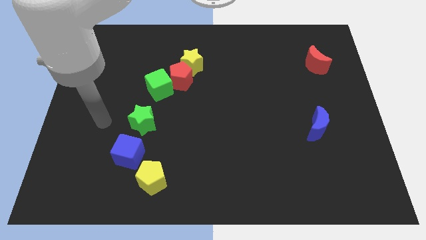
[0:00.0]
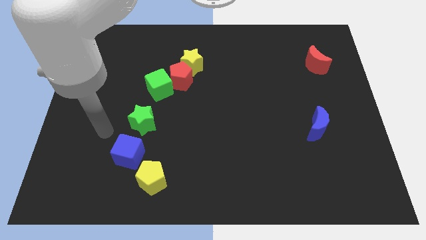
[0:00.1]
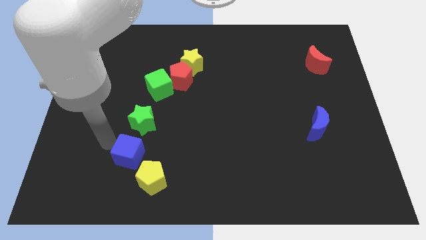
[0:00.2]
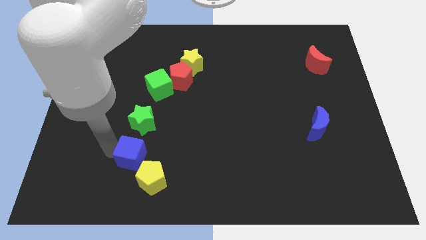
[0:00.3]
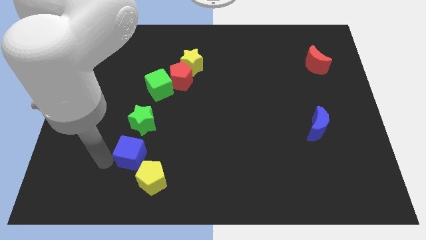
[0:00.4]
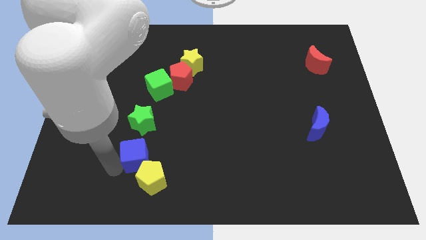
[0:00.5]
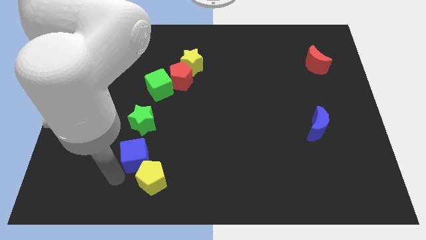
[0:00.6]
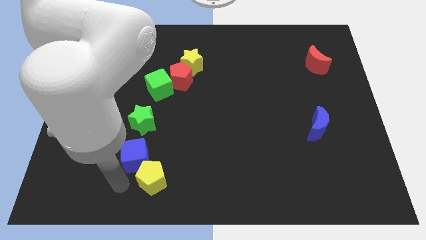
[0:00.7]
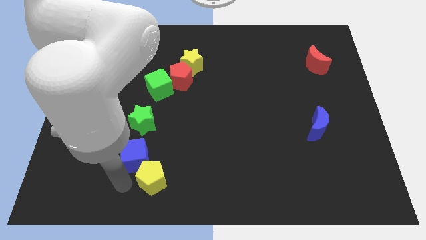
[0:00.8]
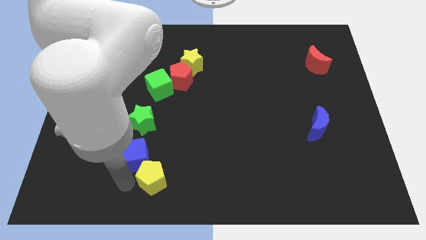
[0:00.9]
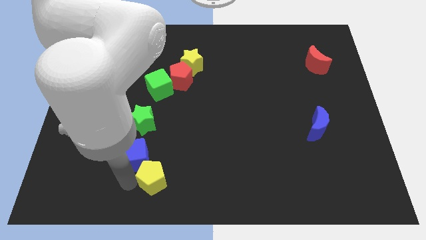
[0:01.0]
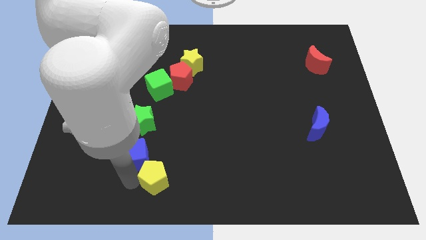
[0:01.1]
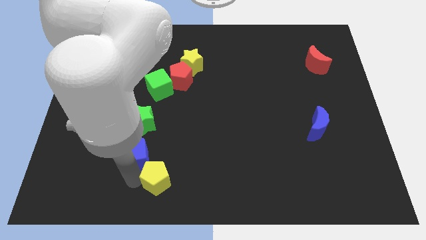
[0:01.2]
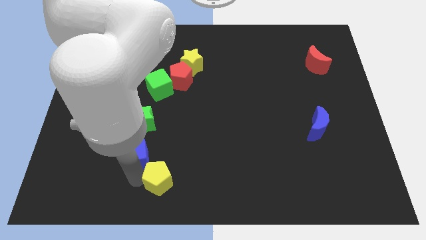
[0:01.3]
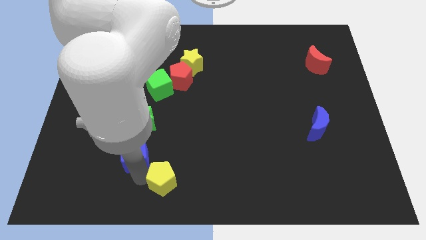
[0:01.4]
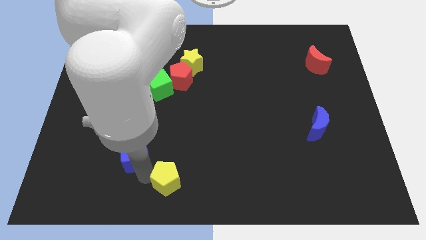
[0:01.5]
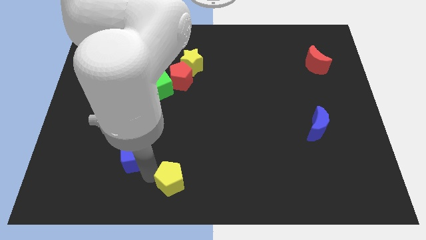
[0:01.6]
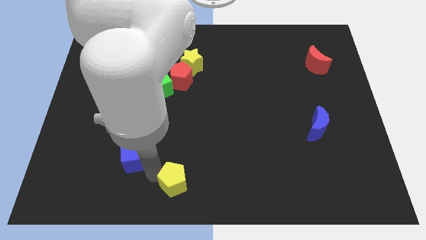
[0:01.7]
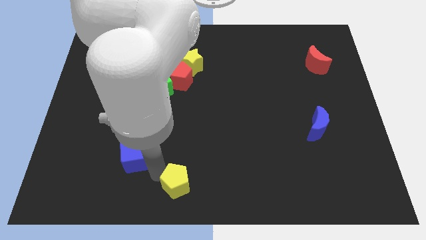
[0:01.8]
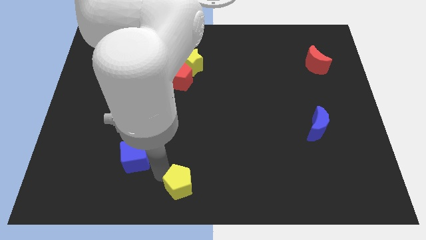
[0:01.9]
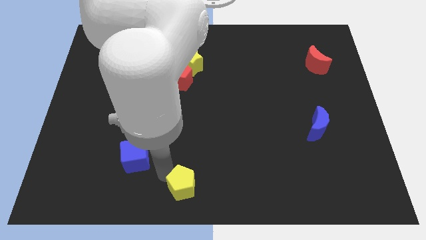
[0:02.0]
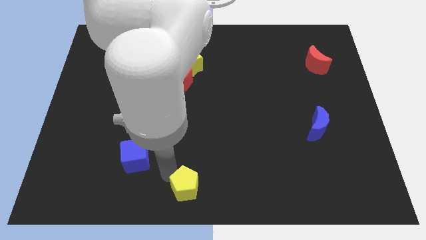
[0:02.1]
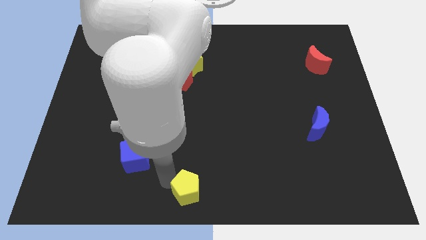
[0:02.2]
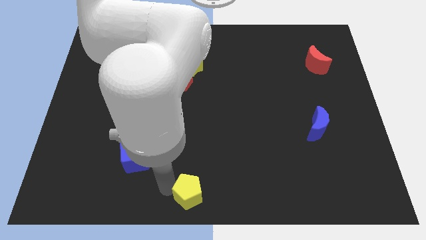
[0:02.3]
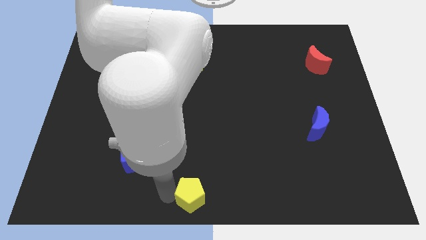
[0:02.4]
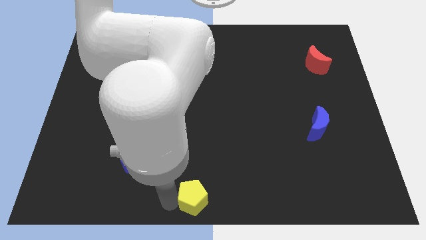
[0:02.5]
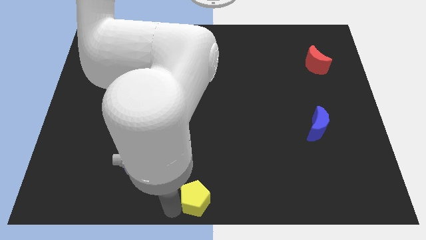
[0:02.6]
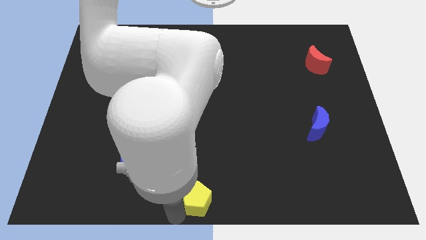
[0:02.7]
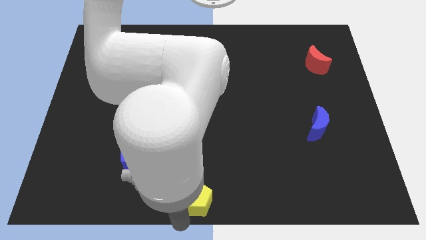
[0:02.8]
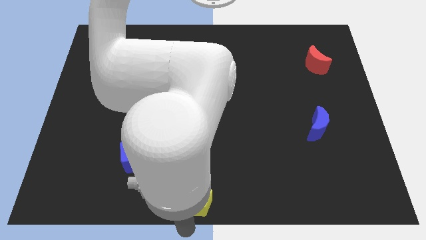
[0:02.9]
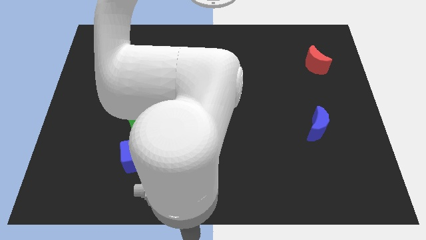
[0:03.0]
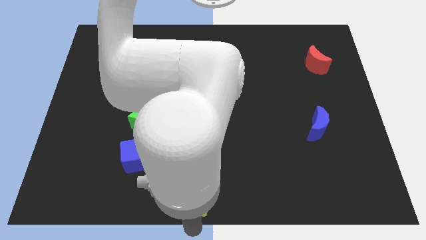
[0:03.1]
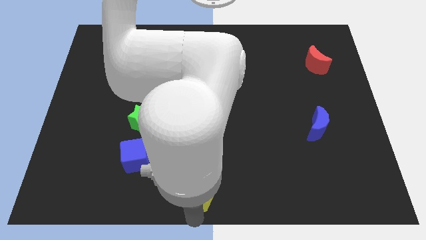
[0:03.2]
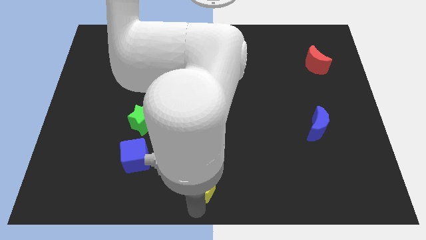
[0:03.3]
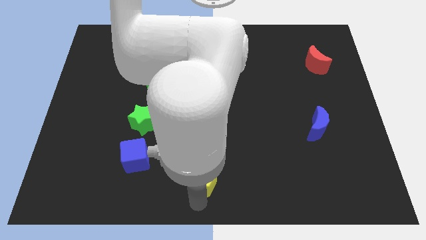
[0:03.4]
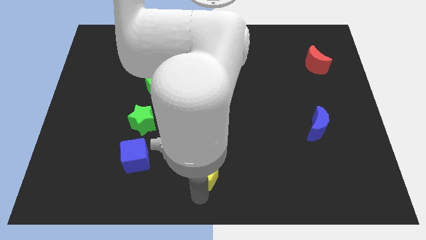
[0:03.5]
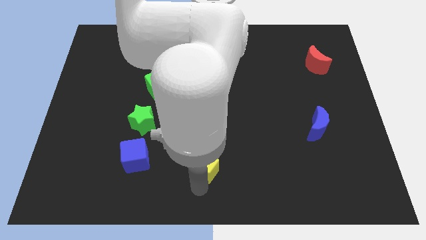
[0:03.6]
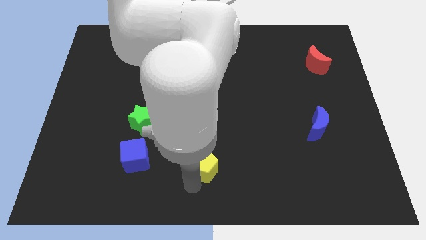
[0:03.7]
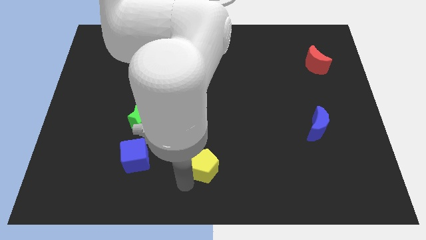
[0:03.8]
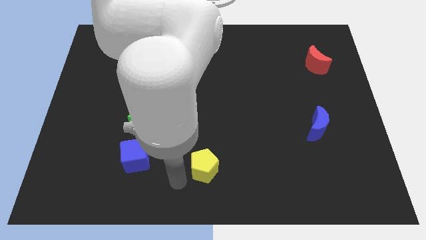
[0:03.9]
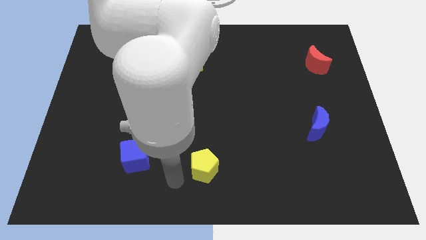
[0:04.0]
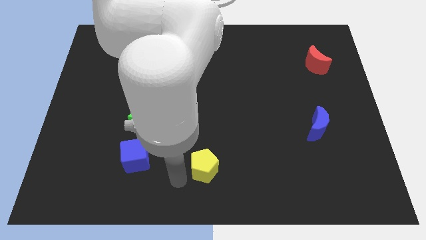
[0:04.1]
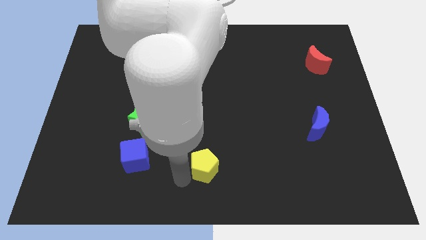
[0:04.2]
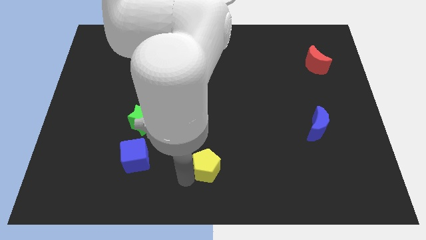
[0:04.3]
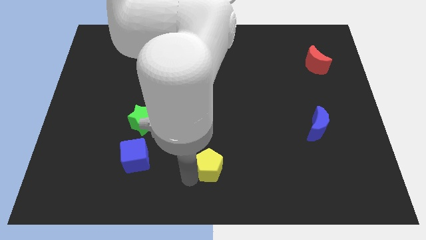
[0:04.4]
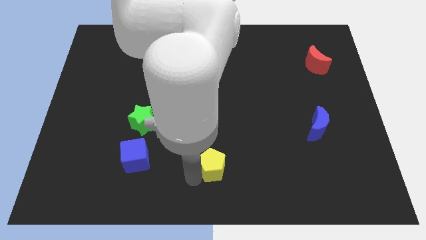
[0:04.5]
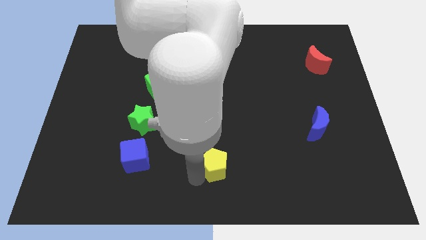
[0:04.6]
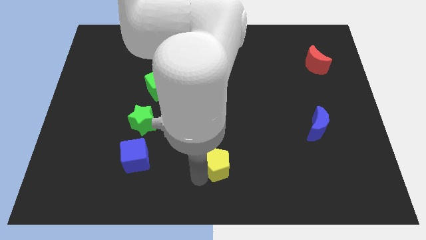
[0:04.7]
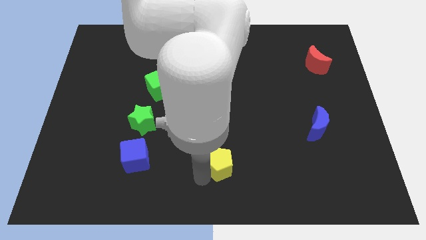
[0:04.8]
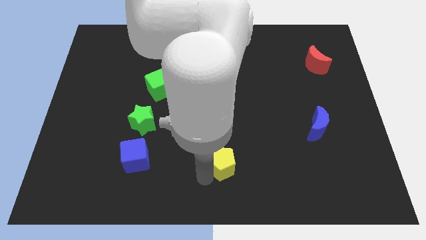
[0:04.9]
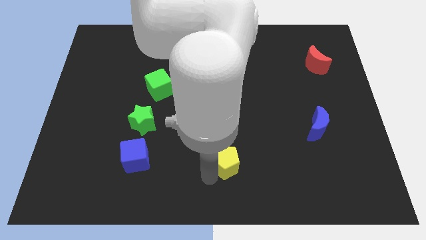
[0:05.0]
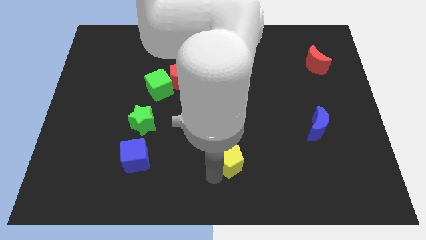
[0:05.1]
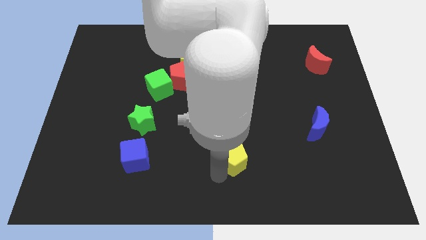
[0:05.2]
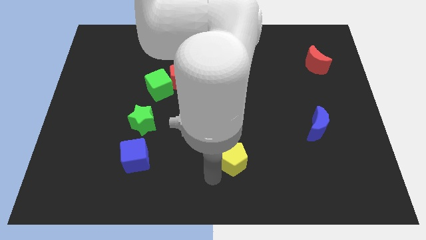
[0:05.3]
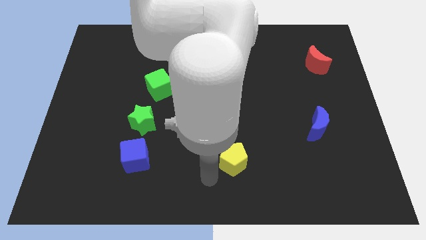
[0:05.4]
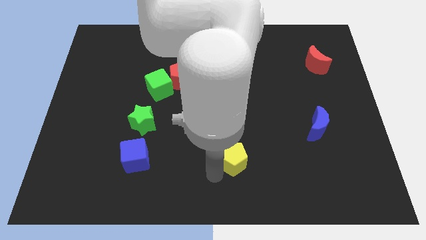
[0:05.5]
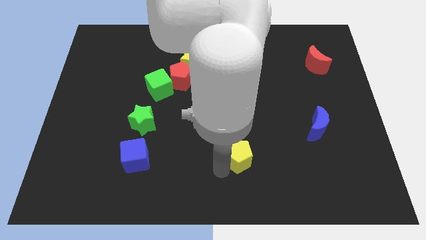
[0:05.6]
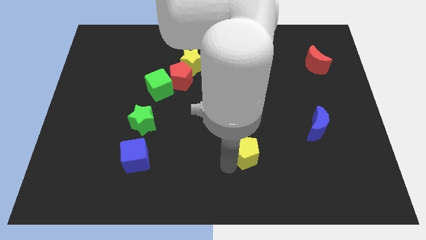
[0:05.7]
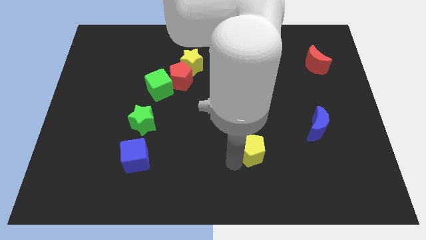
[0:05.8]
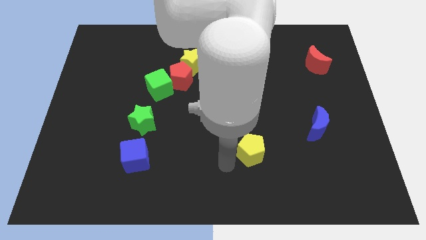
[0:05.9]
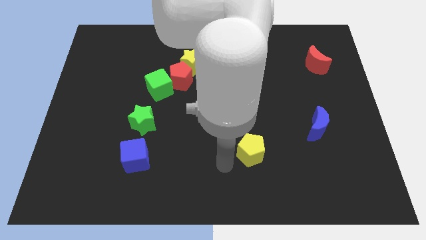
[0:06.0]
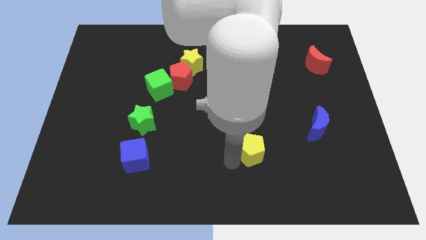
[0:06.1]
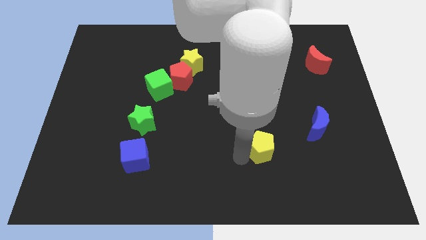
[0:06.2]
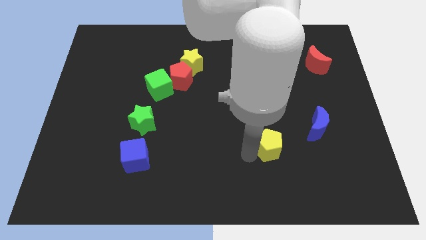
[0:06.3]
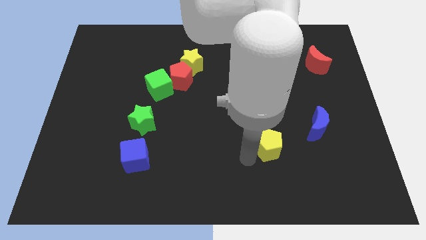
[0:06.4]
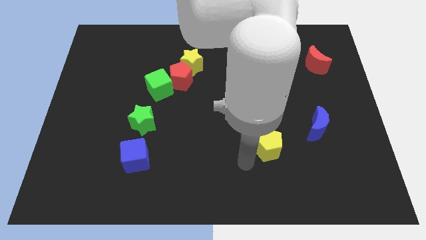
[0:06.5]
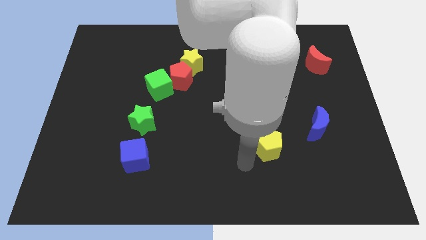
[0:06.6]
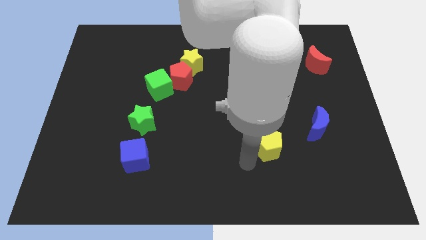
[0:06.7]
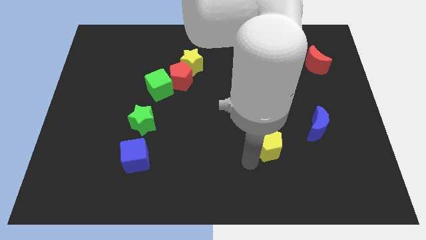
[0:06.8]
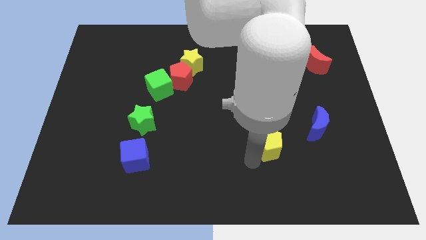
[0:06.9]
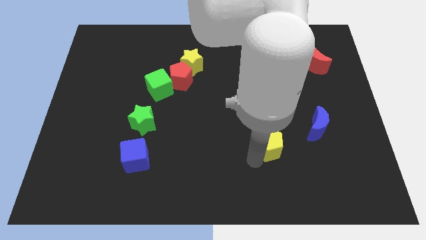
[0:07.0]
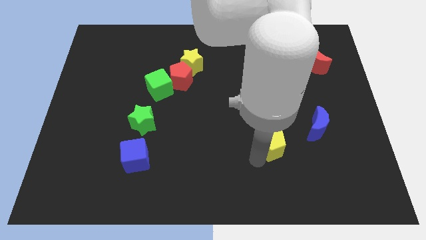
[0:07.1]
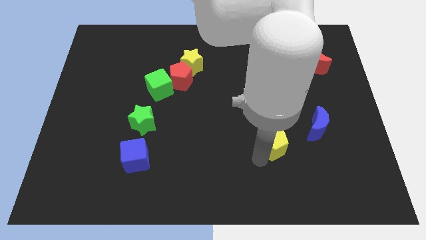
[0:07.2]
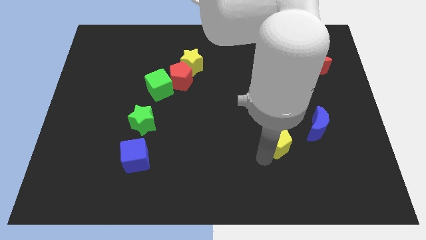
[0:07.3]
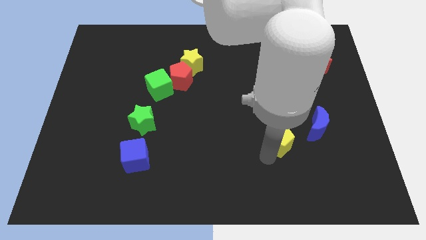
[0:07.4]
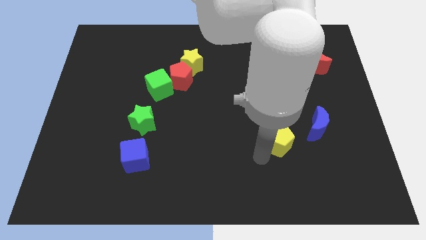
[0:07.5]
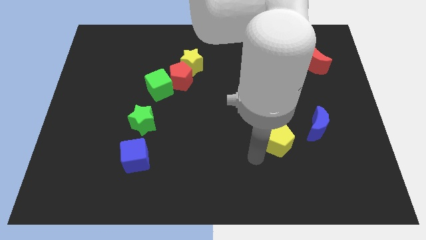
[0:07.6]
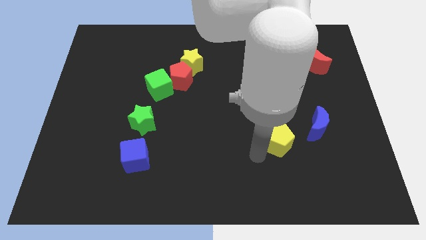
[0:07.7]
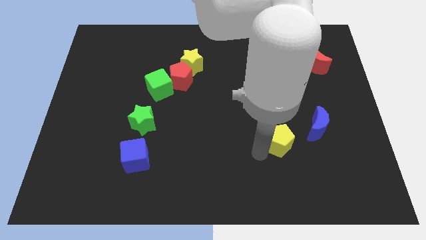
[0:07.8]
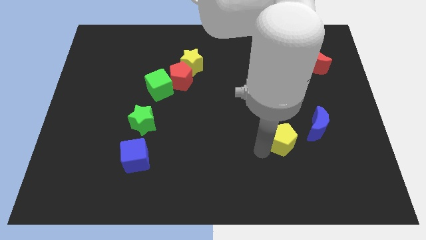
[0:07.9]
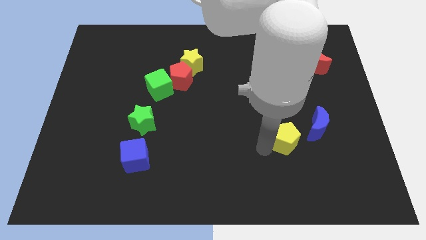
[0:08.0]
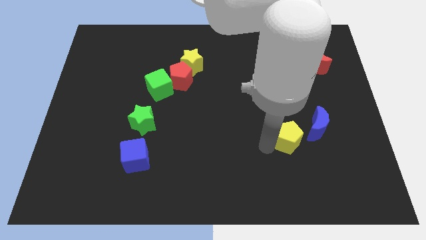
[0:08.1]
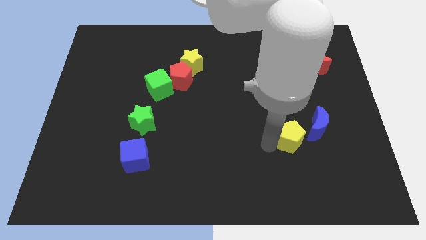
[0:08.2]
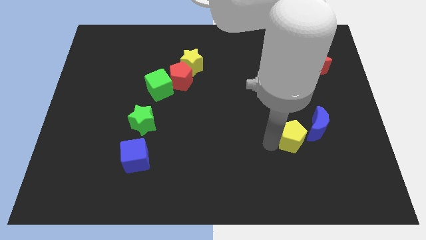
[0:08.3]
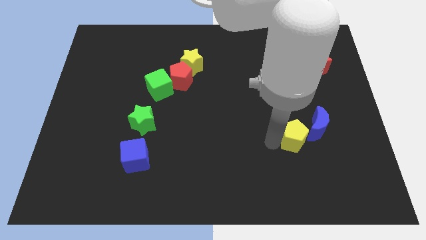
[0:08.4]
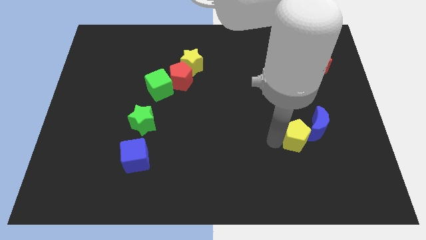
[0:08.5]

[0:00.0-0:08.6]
put the yellow pentagon to the blue moon
